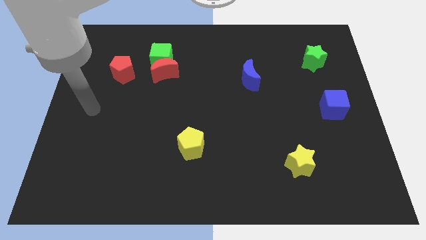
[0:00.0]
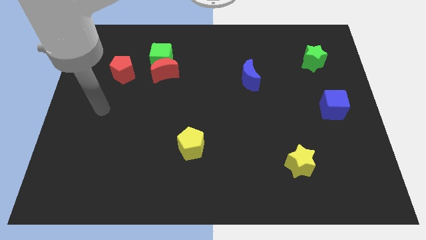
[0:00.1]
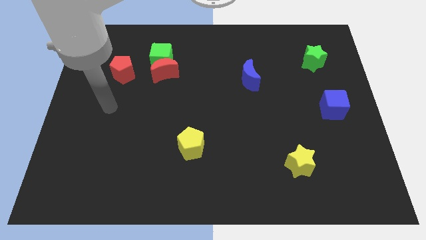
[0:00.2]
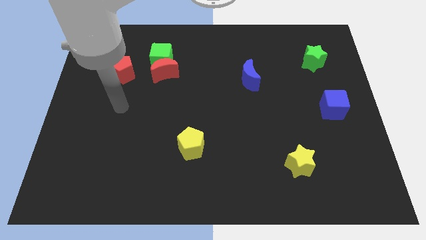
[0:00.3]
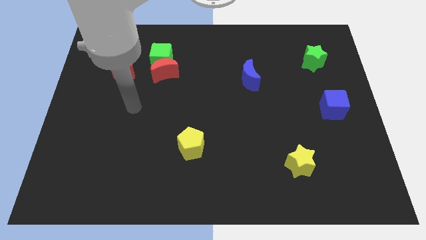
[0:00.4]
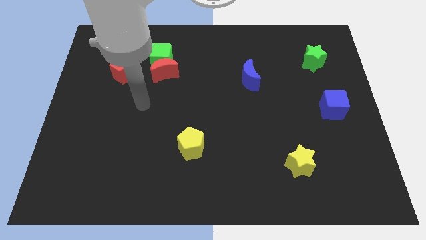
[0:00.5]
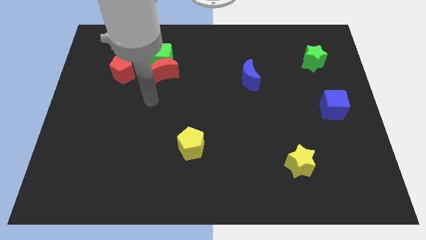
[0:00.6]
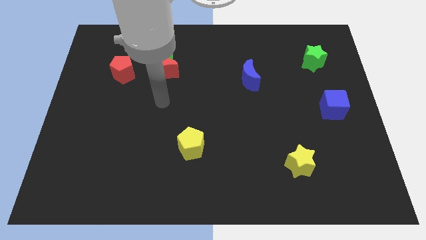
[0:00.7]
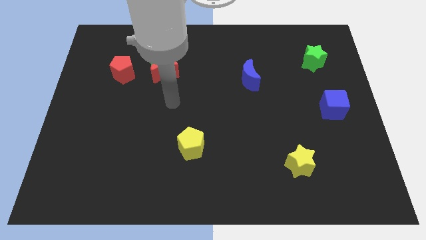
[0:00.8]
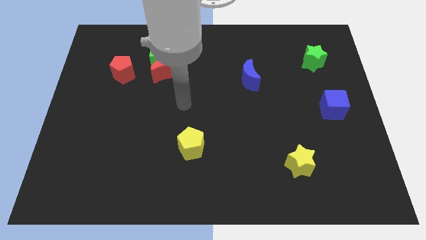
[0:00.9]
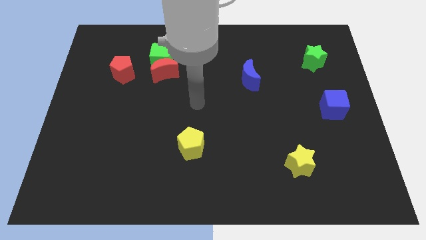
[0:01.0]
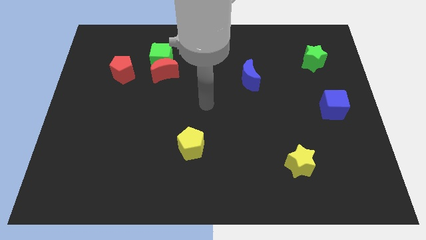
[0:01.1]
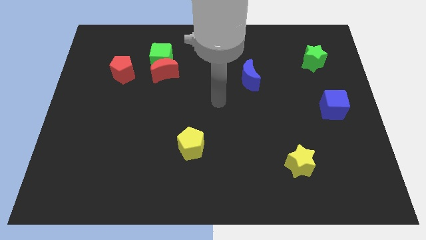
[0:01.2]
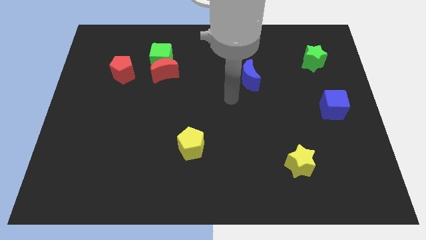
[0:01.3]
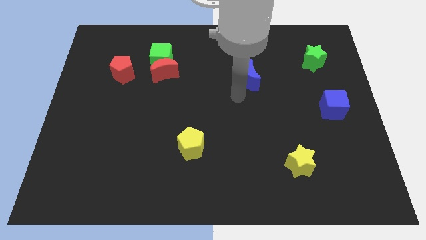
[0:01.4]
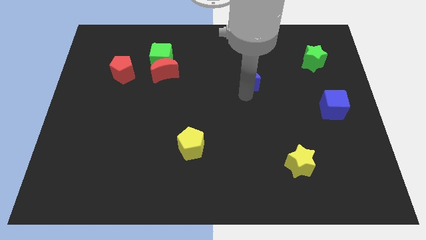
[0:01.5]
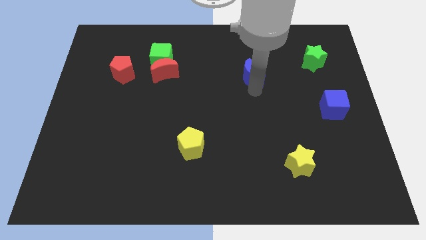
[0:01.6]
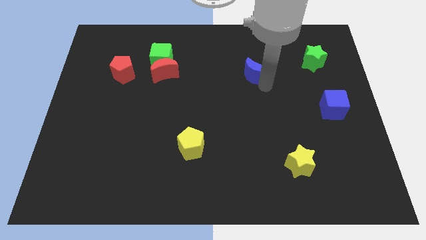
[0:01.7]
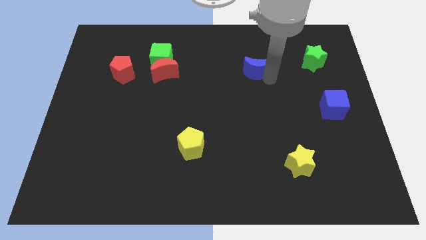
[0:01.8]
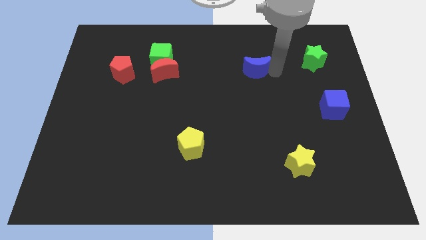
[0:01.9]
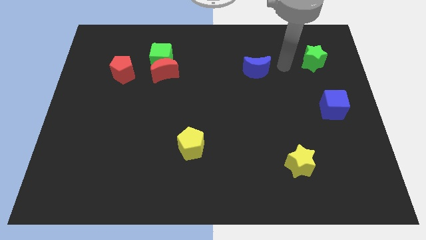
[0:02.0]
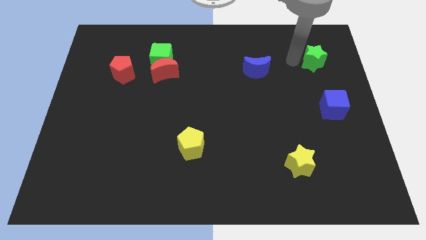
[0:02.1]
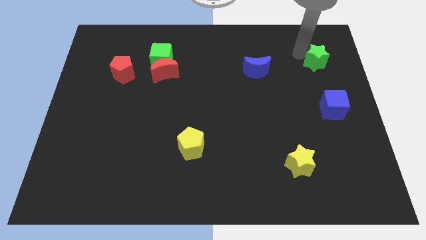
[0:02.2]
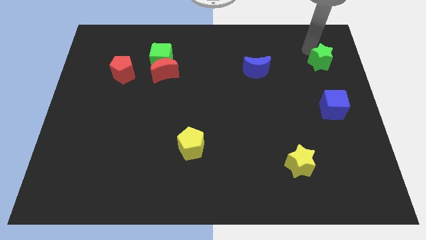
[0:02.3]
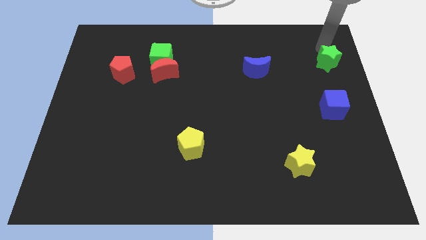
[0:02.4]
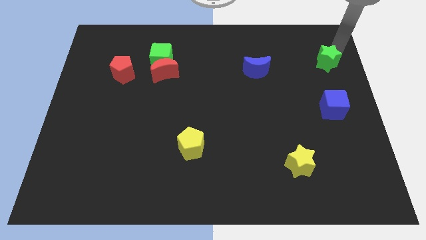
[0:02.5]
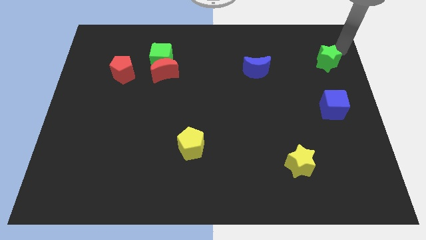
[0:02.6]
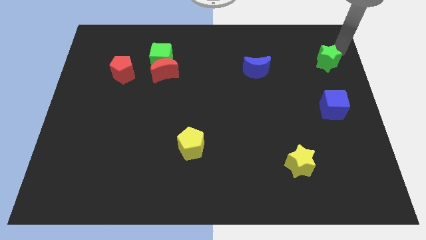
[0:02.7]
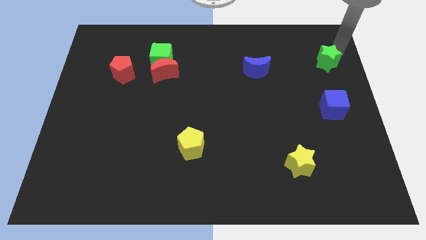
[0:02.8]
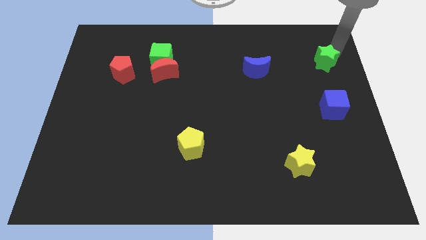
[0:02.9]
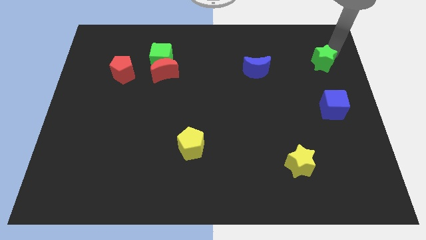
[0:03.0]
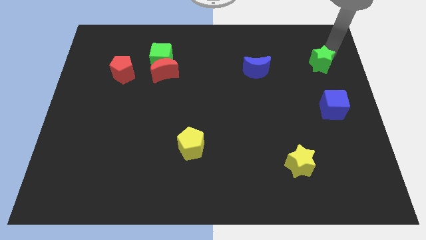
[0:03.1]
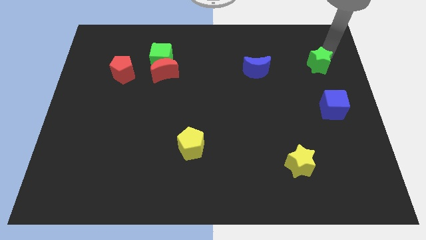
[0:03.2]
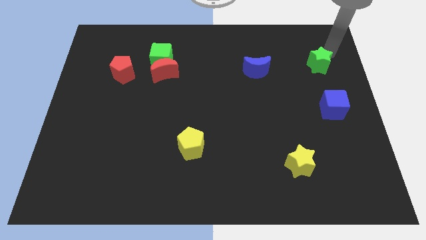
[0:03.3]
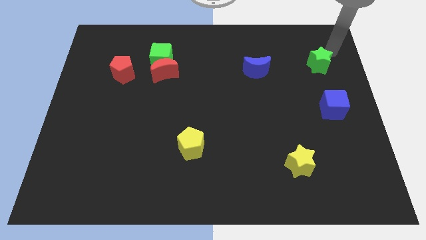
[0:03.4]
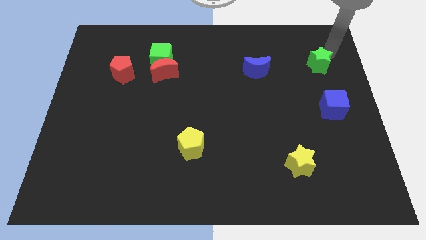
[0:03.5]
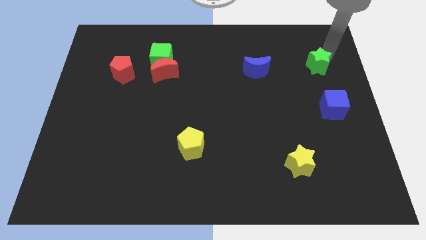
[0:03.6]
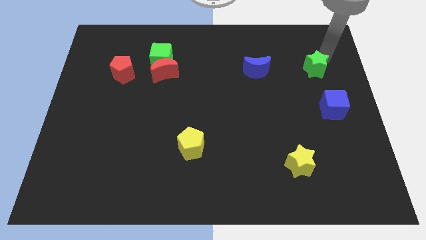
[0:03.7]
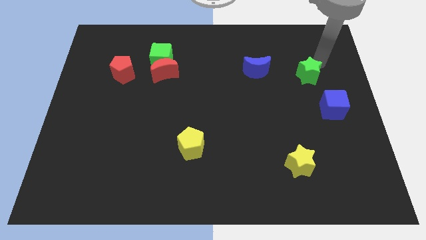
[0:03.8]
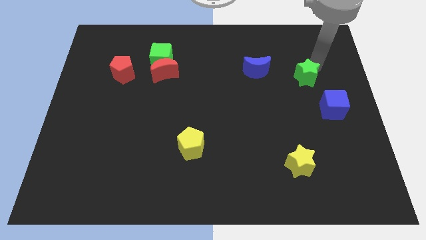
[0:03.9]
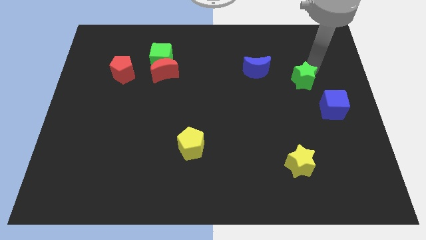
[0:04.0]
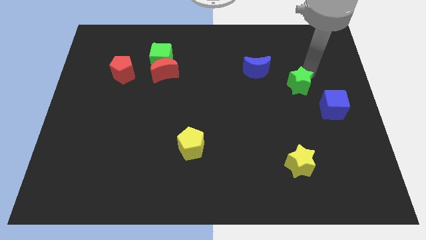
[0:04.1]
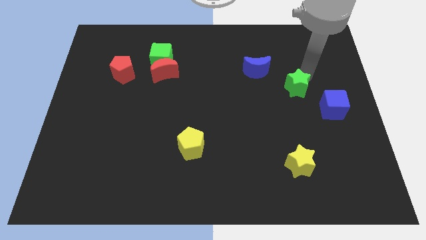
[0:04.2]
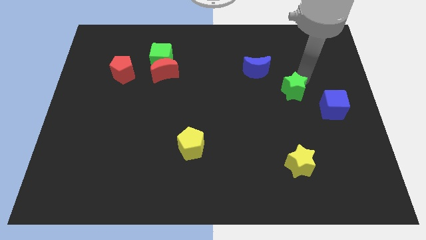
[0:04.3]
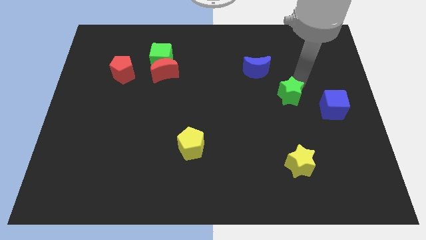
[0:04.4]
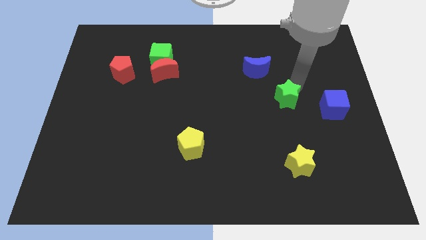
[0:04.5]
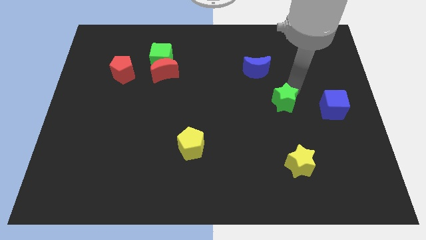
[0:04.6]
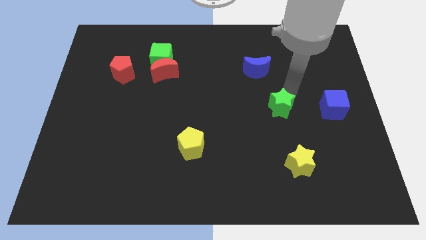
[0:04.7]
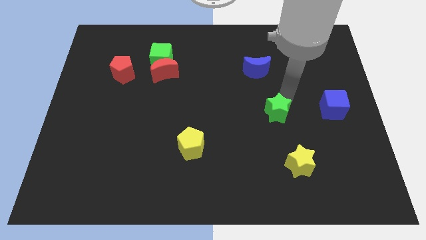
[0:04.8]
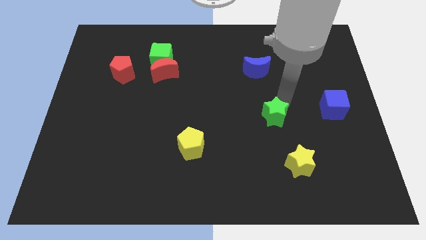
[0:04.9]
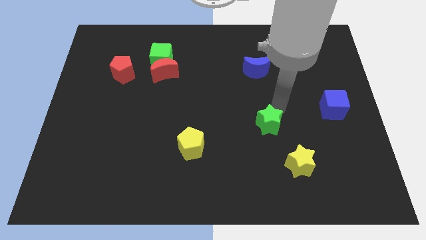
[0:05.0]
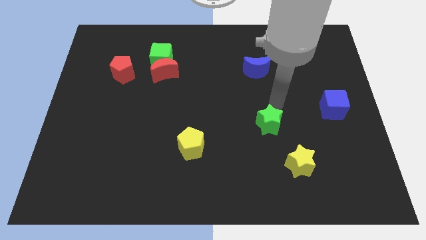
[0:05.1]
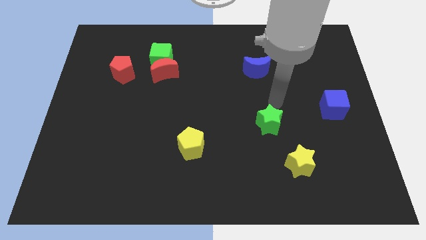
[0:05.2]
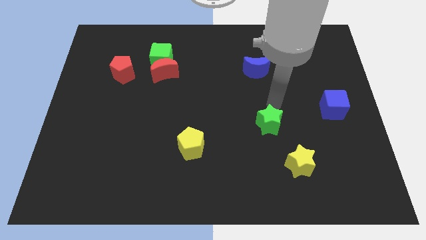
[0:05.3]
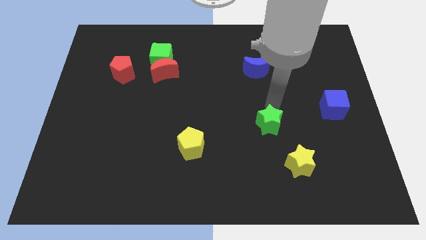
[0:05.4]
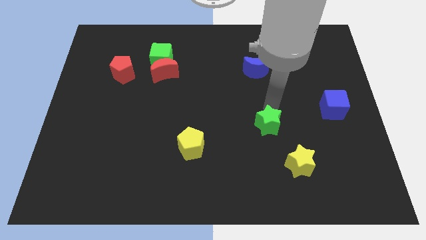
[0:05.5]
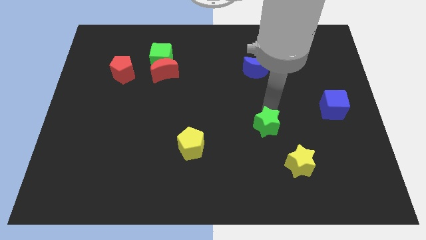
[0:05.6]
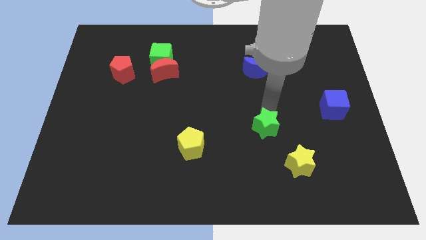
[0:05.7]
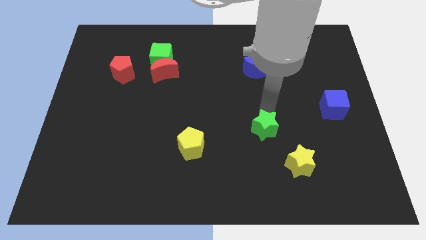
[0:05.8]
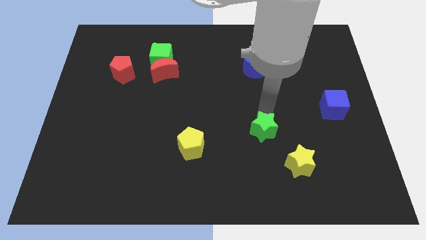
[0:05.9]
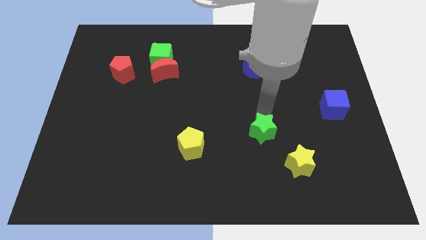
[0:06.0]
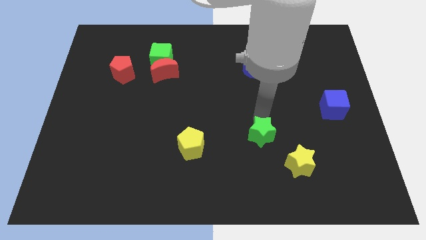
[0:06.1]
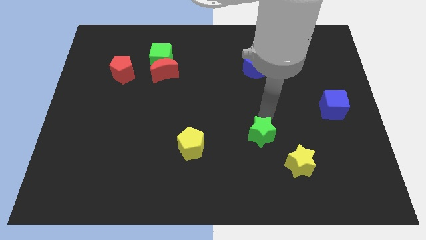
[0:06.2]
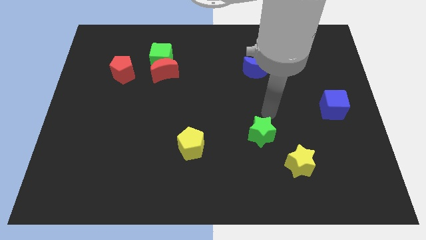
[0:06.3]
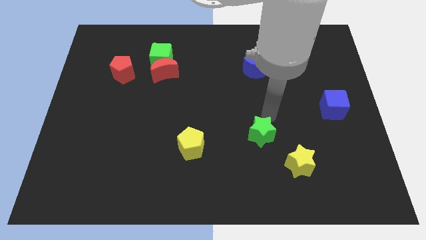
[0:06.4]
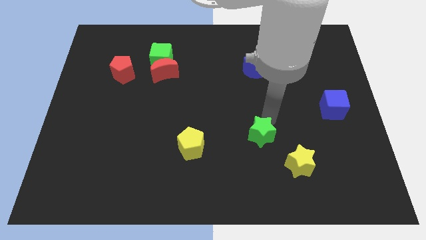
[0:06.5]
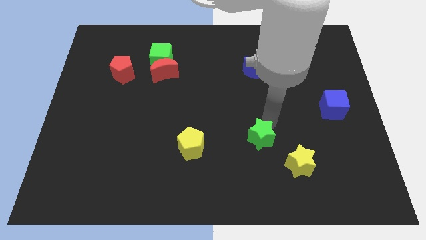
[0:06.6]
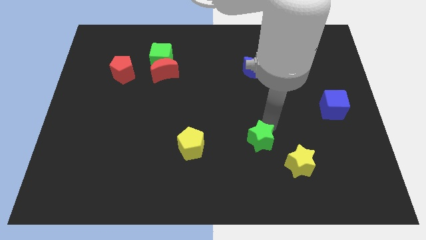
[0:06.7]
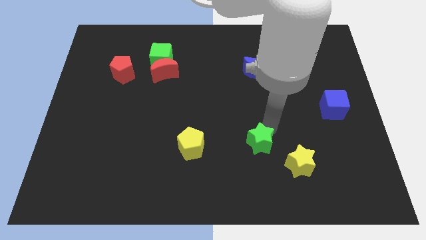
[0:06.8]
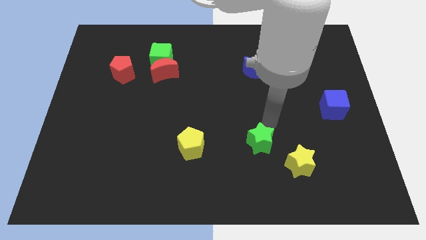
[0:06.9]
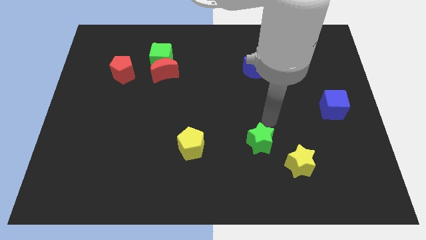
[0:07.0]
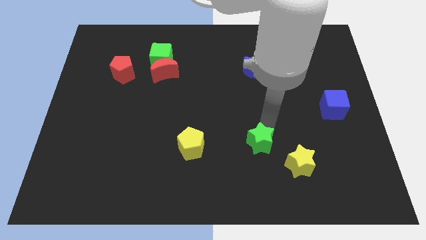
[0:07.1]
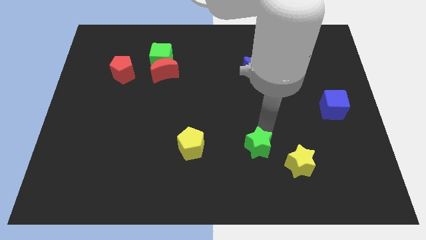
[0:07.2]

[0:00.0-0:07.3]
move the green star just left of the yellow star
